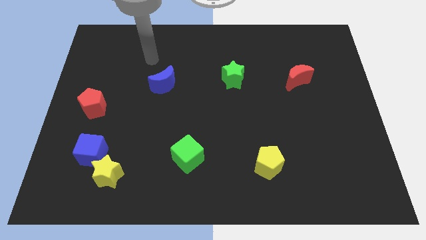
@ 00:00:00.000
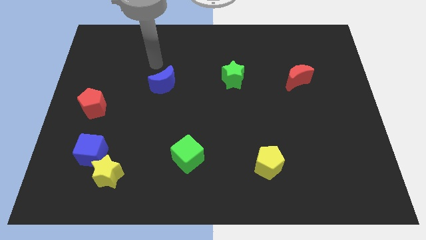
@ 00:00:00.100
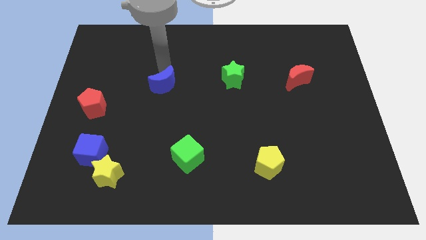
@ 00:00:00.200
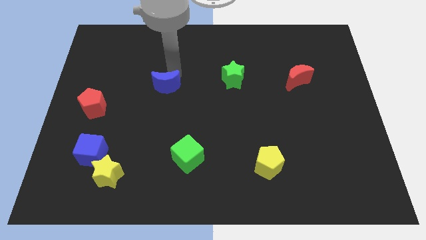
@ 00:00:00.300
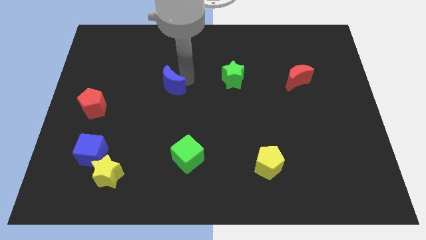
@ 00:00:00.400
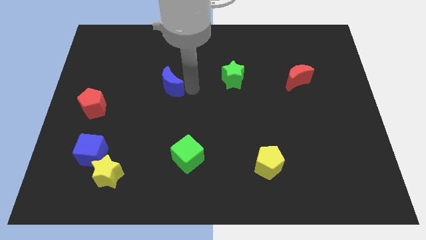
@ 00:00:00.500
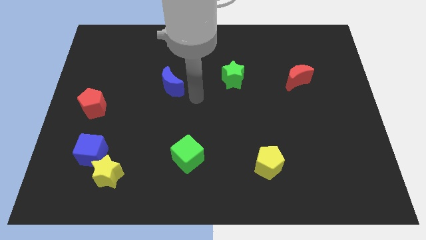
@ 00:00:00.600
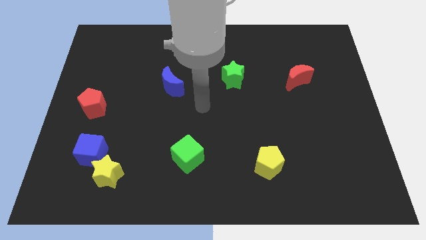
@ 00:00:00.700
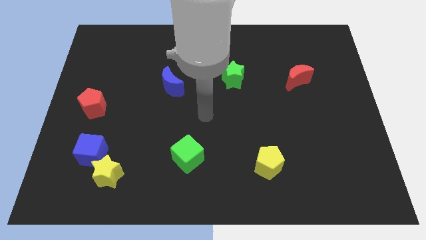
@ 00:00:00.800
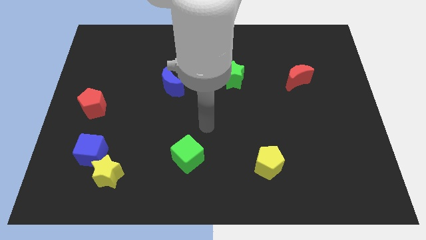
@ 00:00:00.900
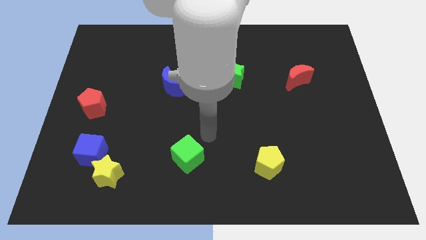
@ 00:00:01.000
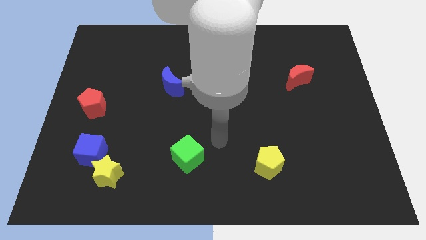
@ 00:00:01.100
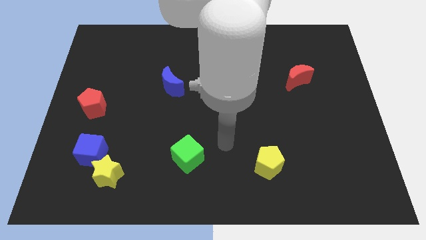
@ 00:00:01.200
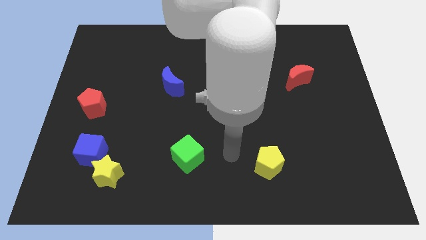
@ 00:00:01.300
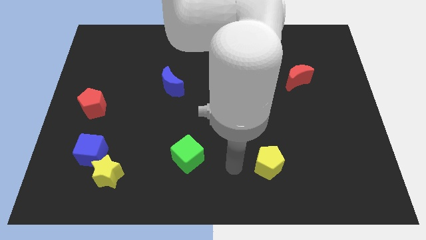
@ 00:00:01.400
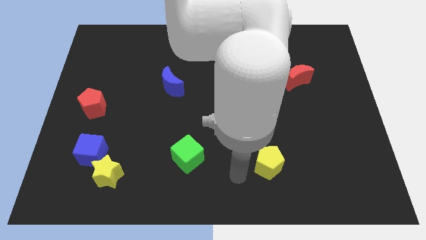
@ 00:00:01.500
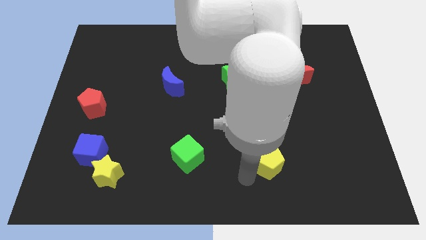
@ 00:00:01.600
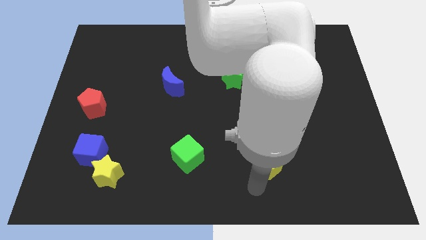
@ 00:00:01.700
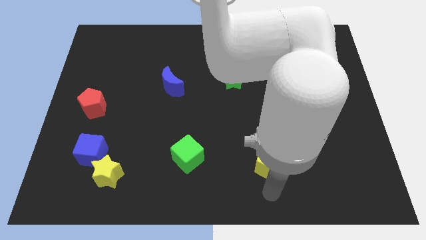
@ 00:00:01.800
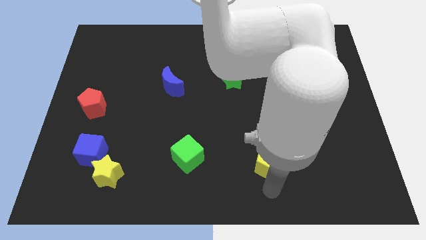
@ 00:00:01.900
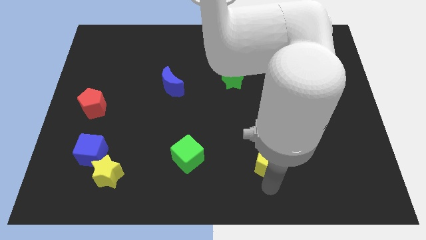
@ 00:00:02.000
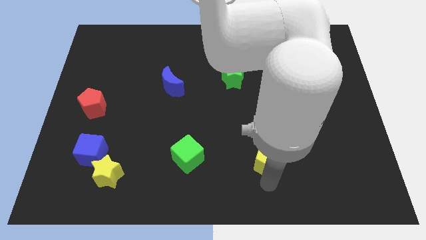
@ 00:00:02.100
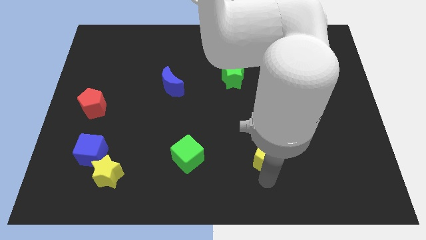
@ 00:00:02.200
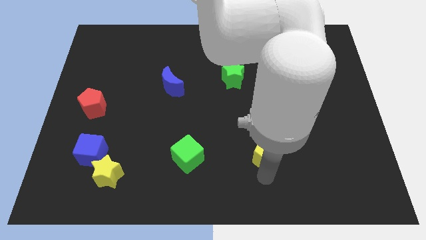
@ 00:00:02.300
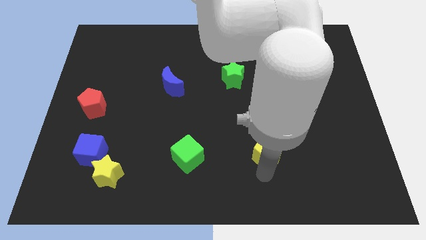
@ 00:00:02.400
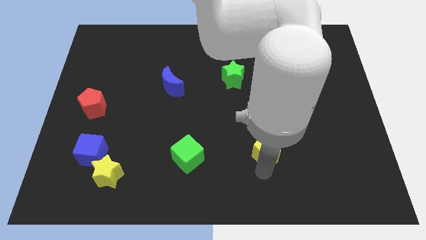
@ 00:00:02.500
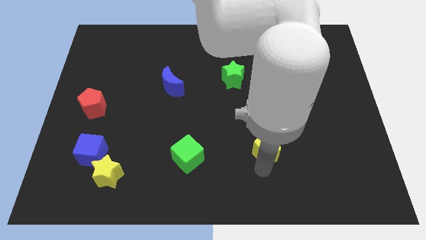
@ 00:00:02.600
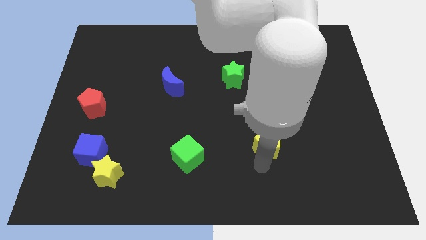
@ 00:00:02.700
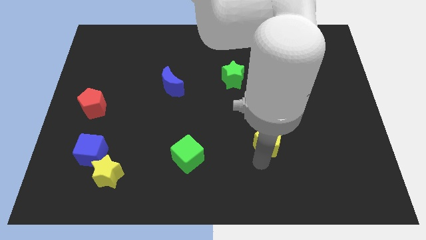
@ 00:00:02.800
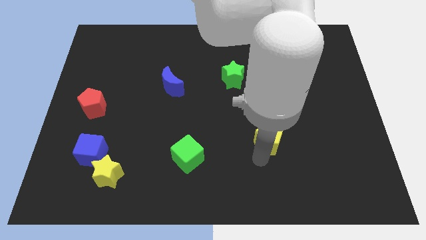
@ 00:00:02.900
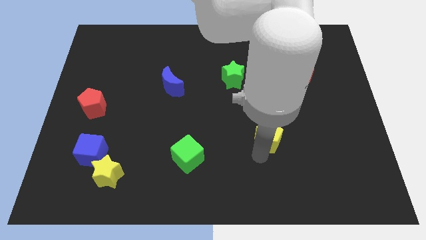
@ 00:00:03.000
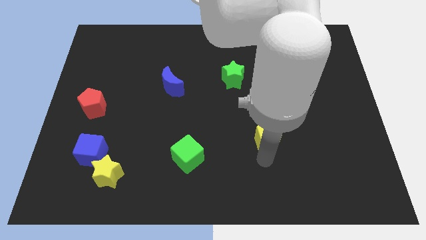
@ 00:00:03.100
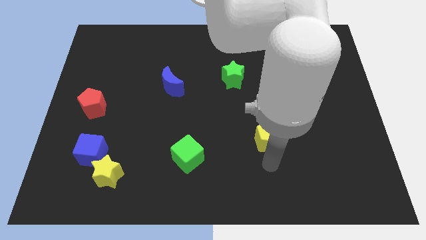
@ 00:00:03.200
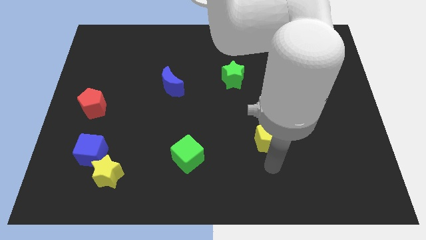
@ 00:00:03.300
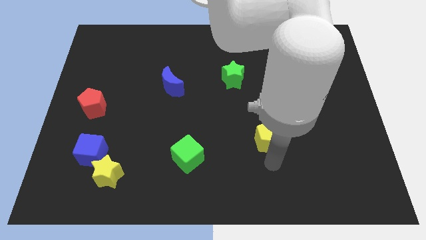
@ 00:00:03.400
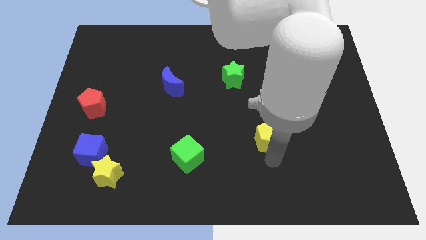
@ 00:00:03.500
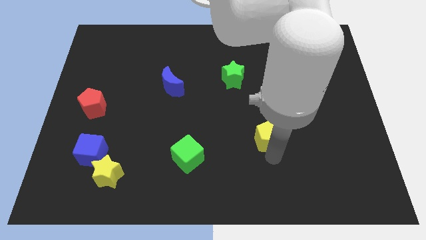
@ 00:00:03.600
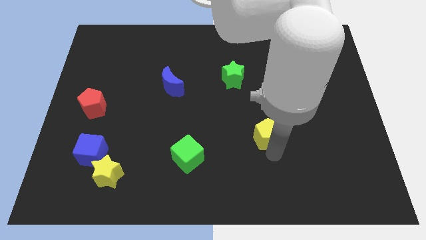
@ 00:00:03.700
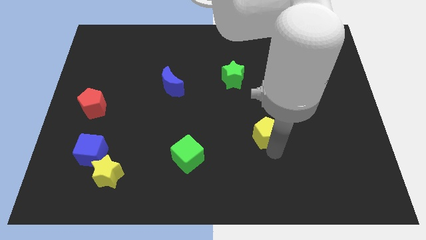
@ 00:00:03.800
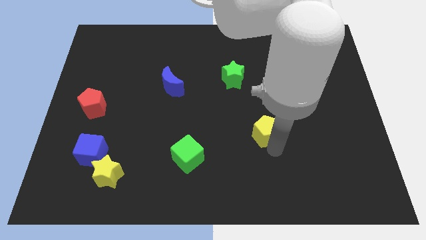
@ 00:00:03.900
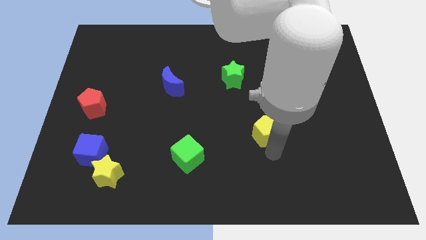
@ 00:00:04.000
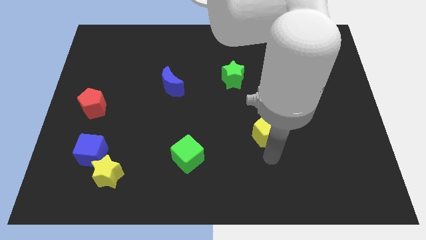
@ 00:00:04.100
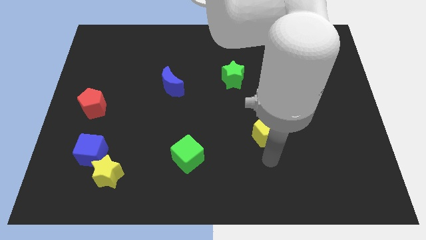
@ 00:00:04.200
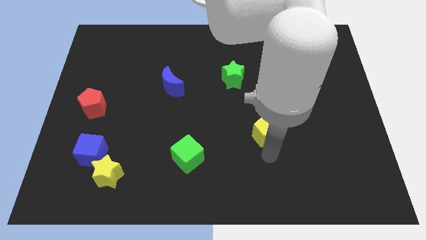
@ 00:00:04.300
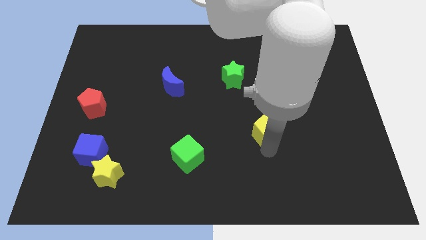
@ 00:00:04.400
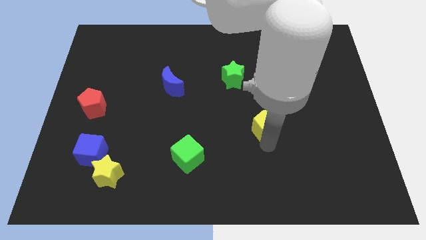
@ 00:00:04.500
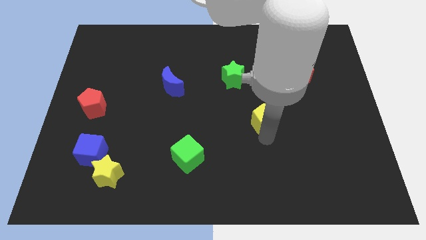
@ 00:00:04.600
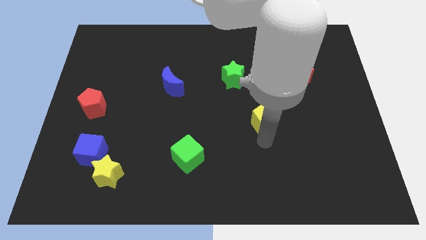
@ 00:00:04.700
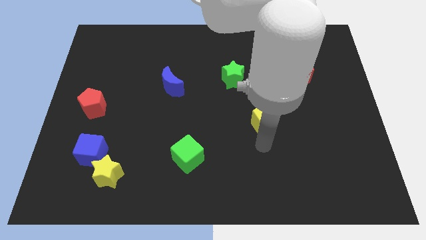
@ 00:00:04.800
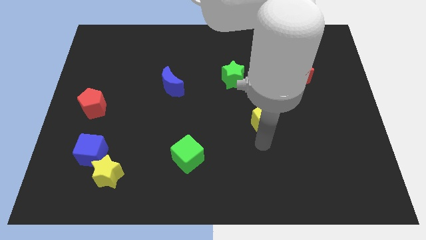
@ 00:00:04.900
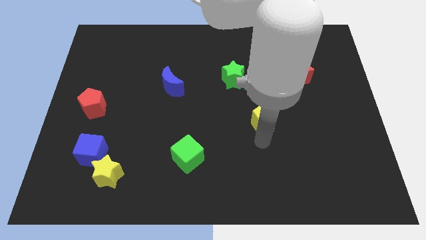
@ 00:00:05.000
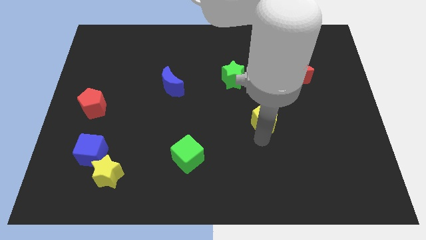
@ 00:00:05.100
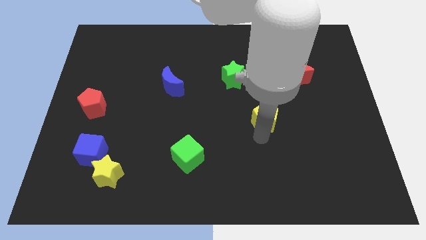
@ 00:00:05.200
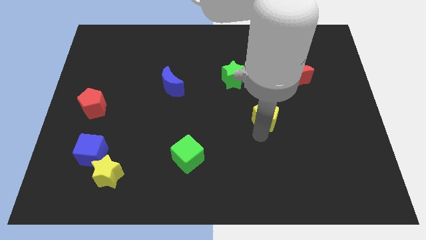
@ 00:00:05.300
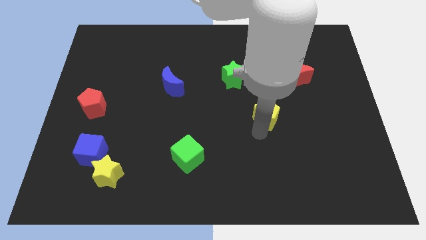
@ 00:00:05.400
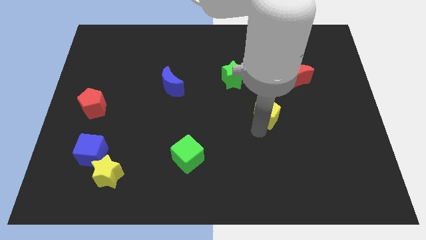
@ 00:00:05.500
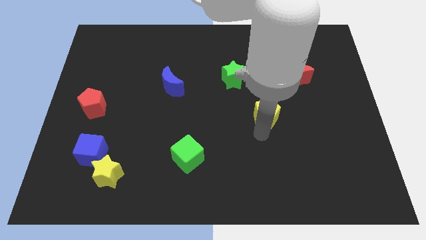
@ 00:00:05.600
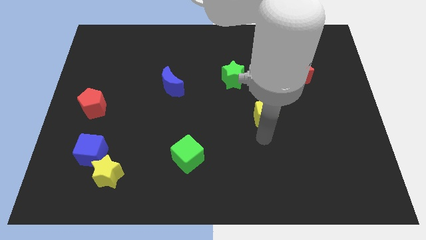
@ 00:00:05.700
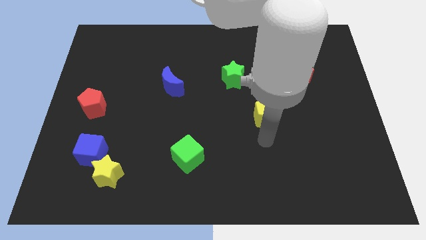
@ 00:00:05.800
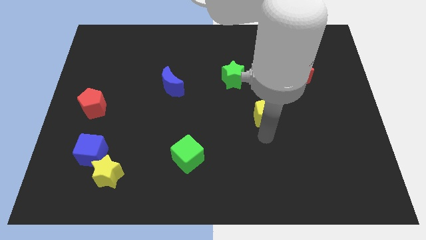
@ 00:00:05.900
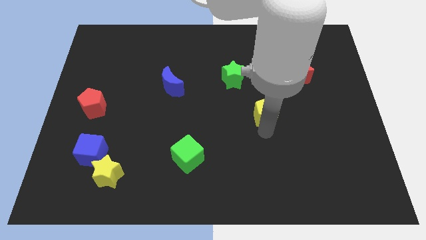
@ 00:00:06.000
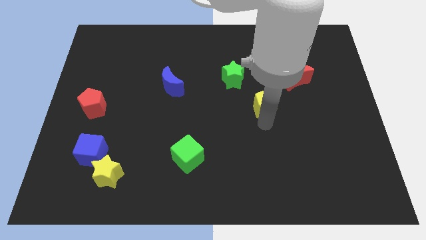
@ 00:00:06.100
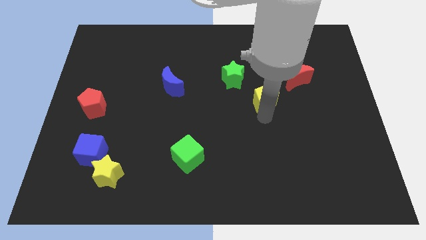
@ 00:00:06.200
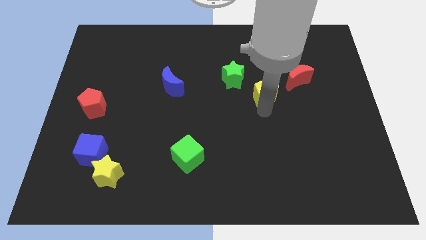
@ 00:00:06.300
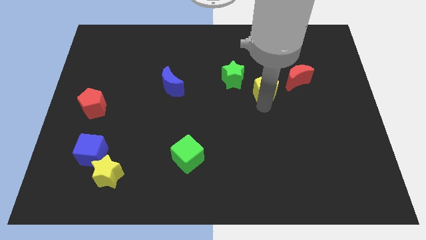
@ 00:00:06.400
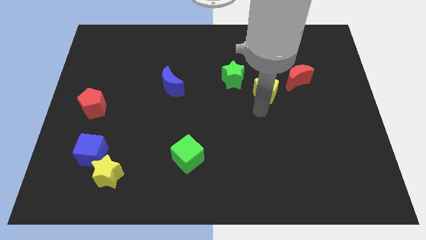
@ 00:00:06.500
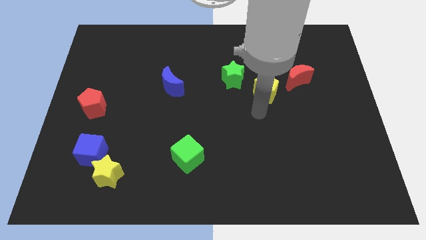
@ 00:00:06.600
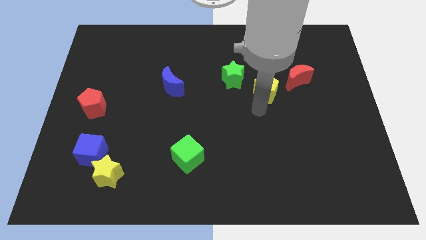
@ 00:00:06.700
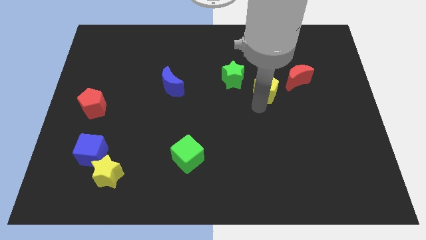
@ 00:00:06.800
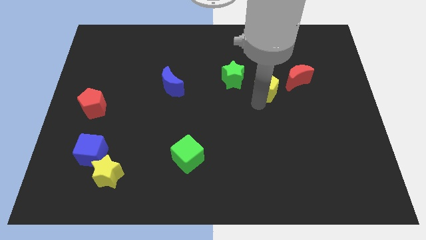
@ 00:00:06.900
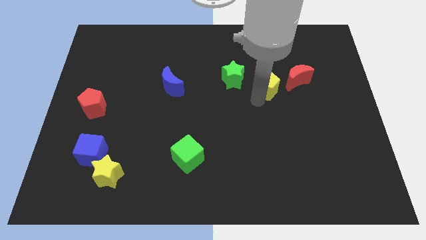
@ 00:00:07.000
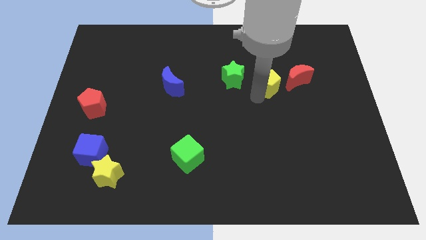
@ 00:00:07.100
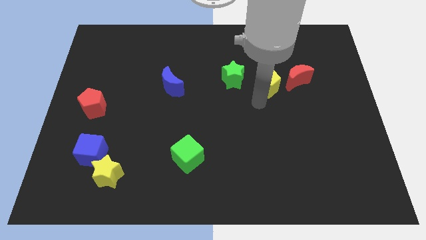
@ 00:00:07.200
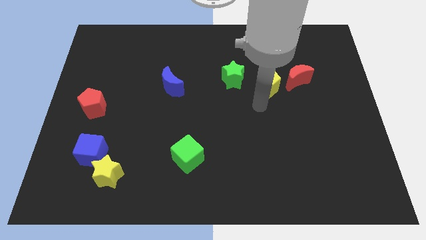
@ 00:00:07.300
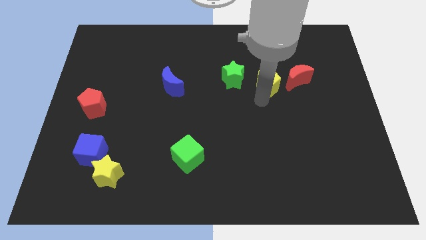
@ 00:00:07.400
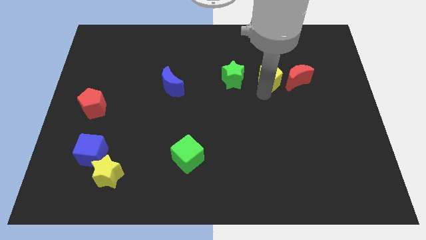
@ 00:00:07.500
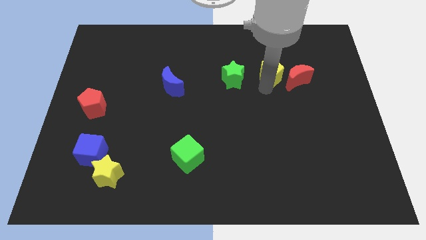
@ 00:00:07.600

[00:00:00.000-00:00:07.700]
move the yellow pentagon diagonally up and to the left of the red moon
